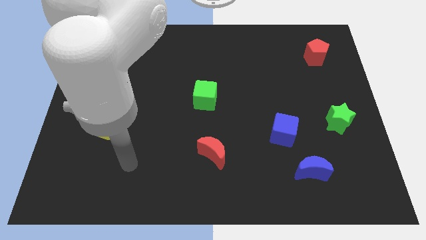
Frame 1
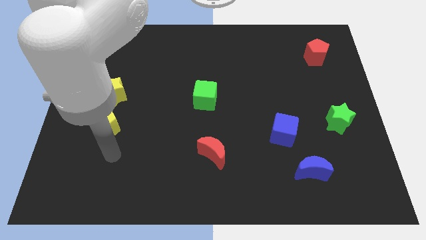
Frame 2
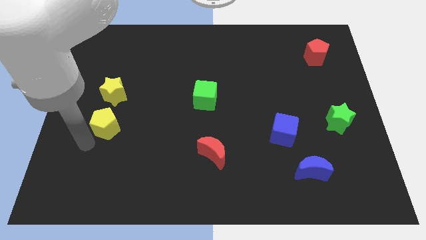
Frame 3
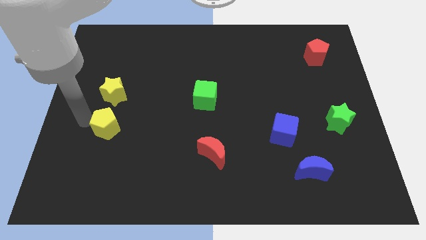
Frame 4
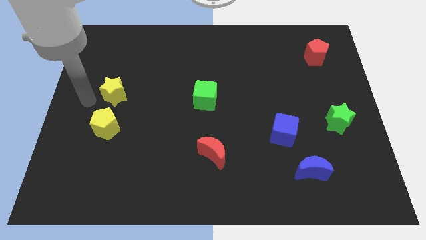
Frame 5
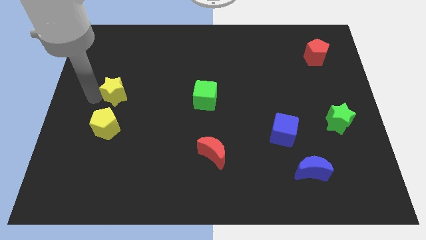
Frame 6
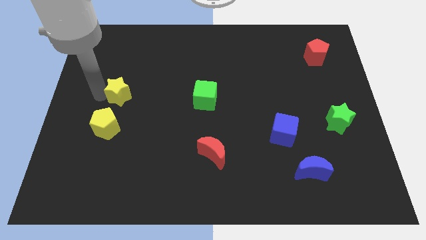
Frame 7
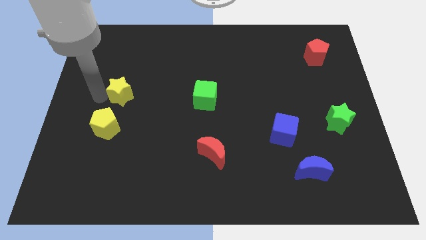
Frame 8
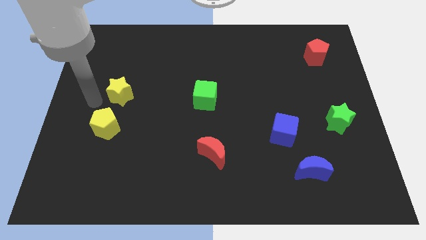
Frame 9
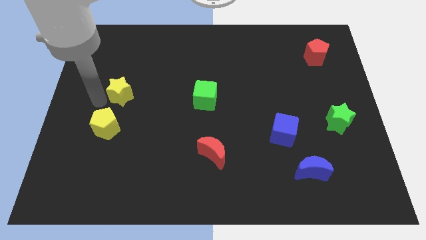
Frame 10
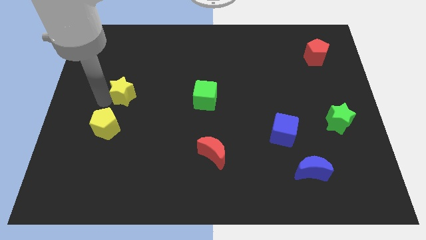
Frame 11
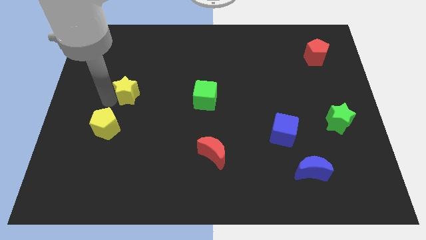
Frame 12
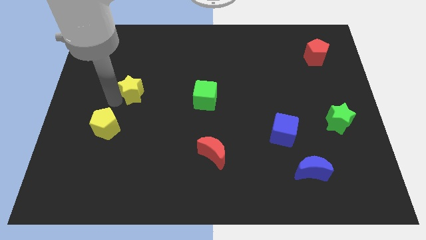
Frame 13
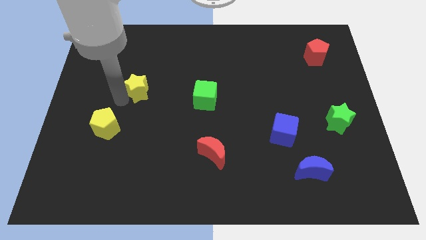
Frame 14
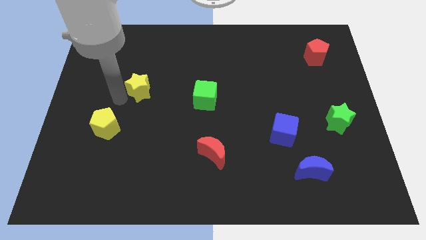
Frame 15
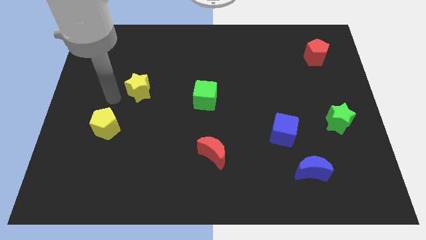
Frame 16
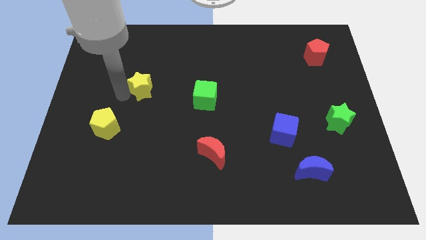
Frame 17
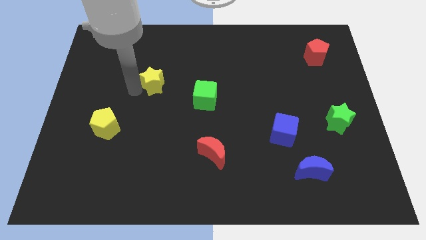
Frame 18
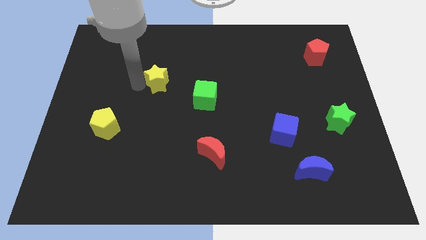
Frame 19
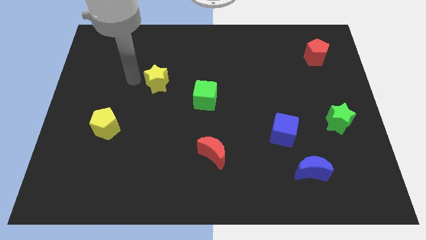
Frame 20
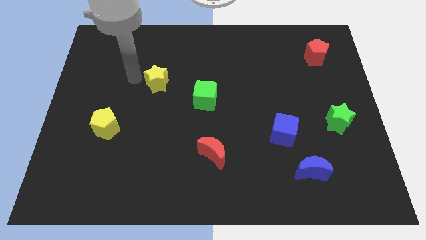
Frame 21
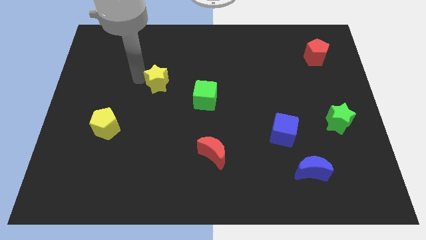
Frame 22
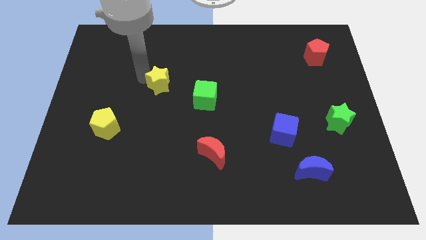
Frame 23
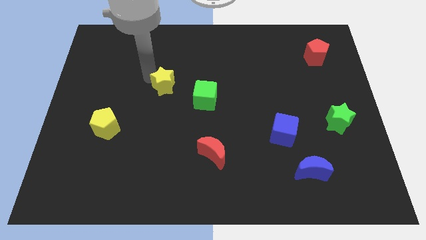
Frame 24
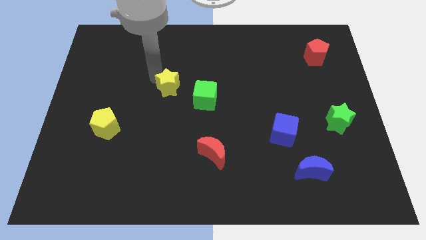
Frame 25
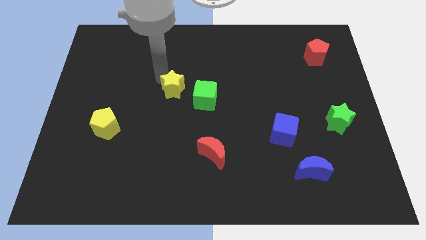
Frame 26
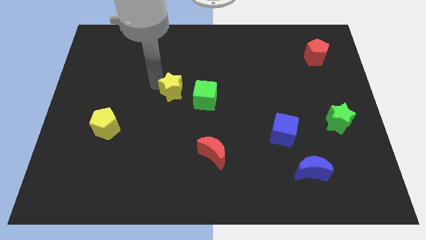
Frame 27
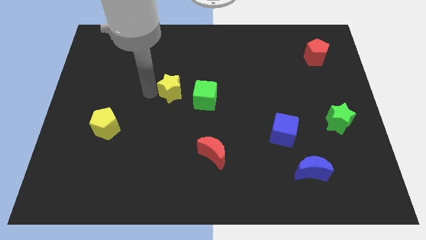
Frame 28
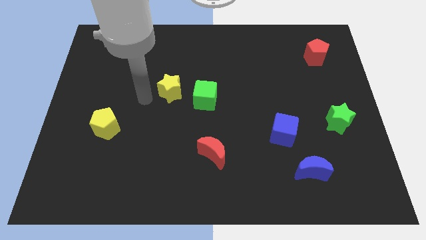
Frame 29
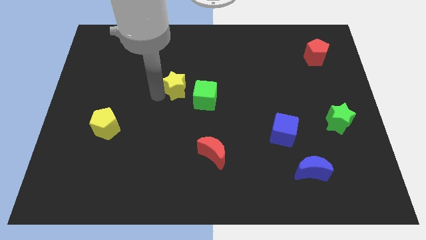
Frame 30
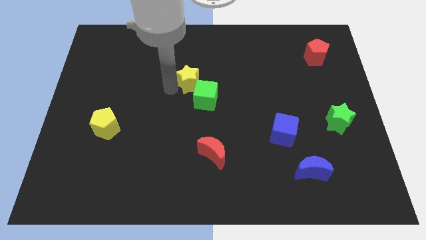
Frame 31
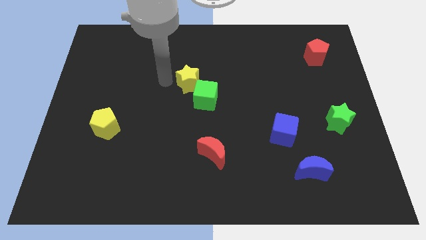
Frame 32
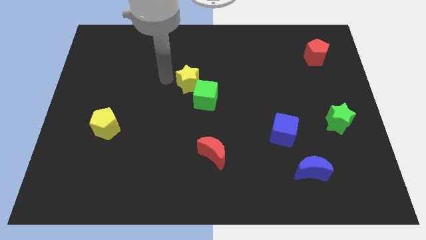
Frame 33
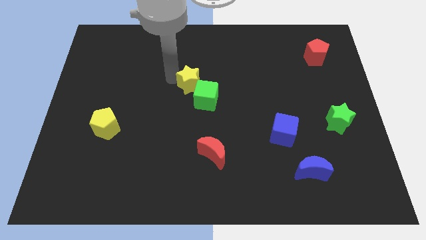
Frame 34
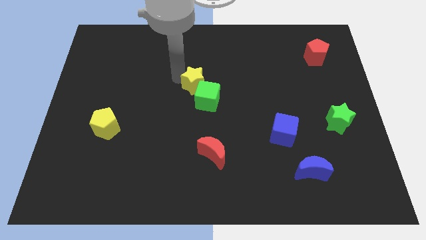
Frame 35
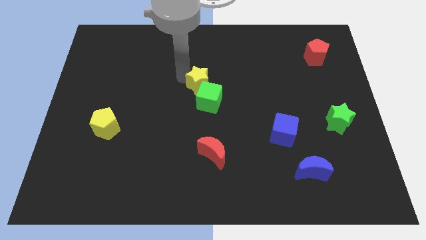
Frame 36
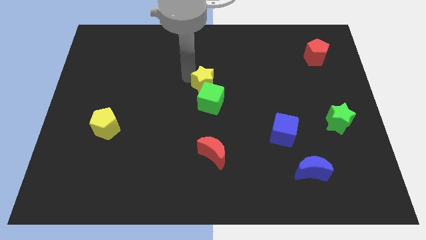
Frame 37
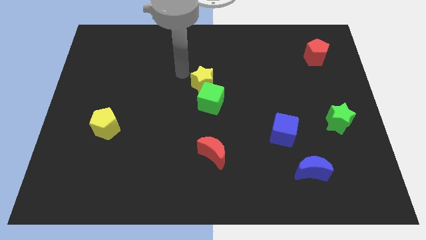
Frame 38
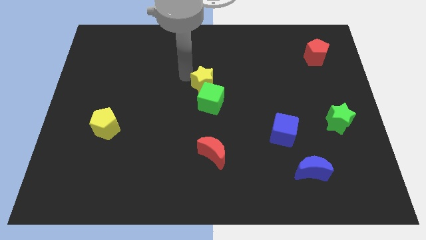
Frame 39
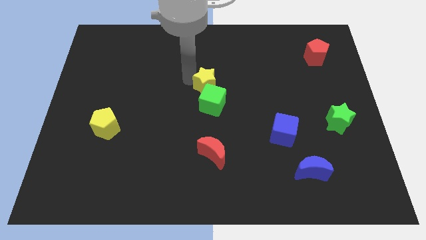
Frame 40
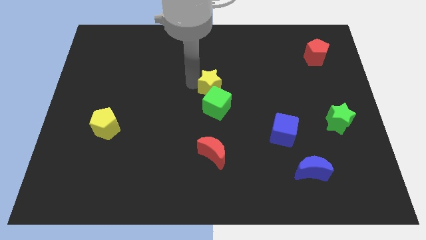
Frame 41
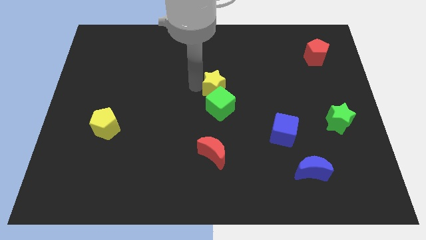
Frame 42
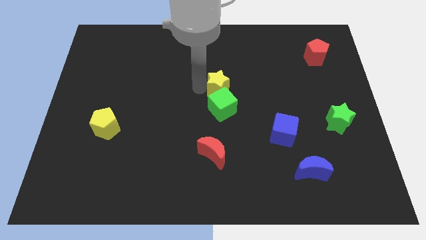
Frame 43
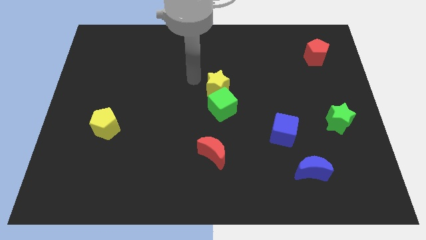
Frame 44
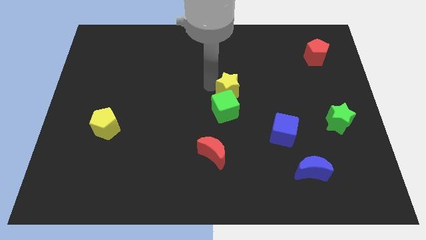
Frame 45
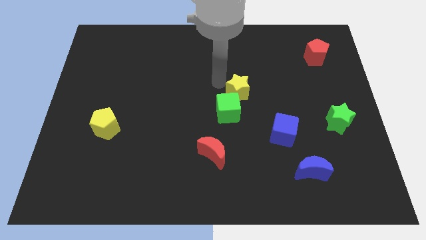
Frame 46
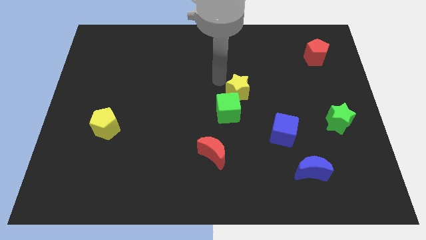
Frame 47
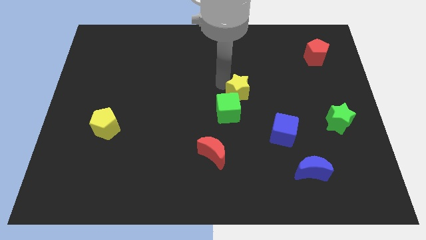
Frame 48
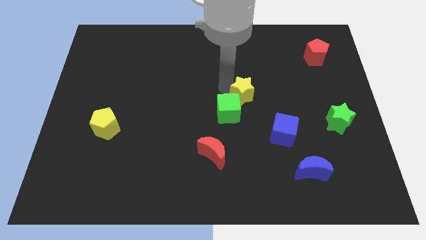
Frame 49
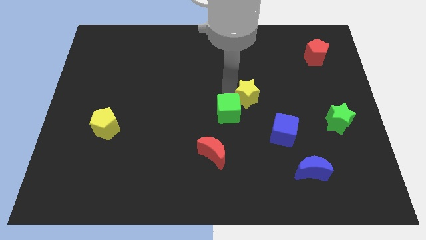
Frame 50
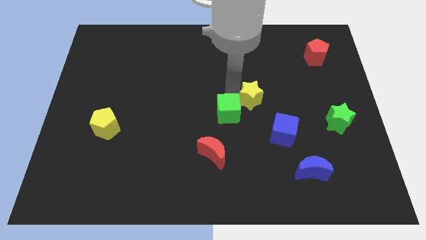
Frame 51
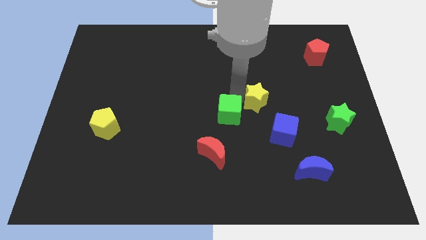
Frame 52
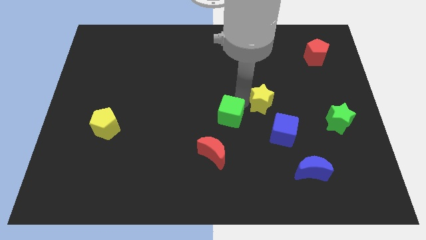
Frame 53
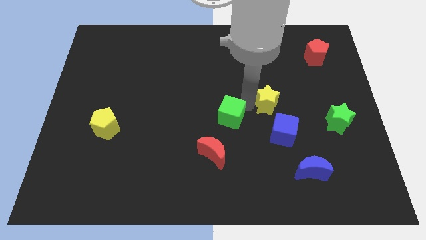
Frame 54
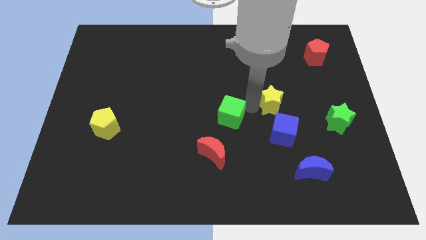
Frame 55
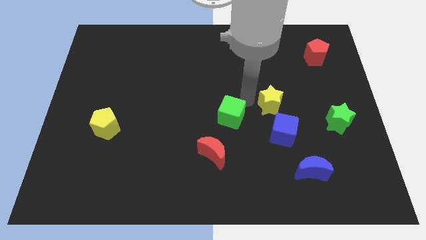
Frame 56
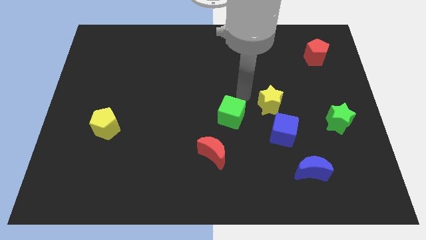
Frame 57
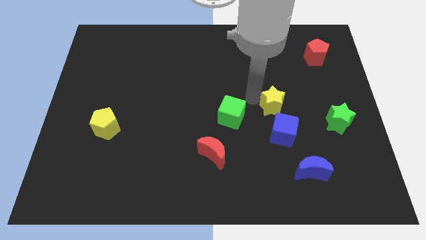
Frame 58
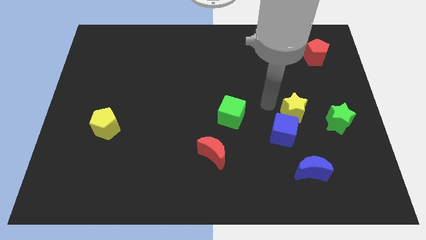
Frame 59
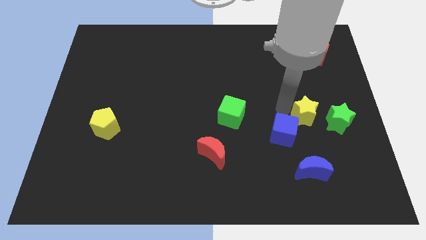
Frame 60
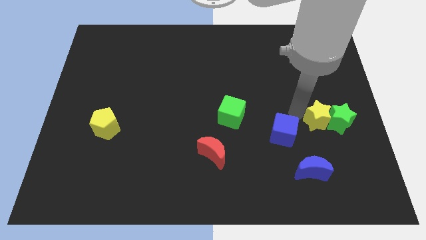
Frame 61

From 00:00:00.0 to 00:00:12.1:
move the yellow star towards the green star

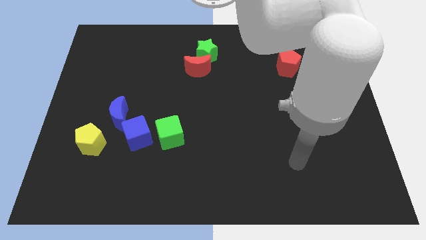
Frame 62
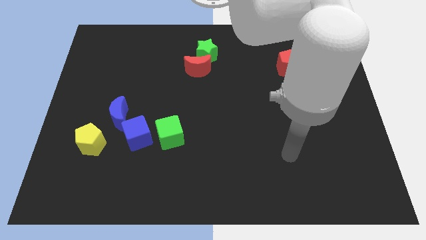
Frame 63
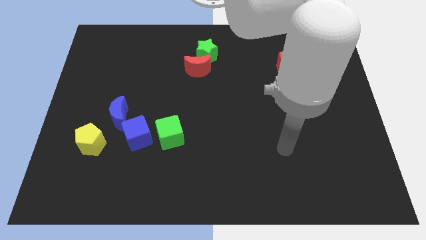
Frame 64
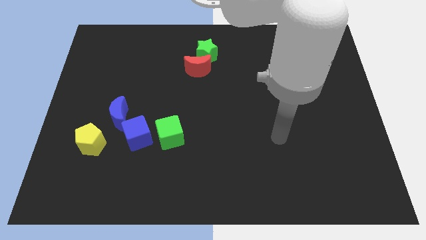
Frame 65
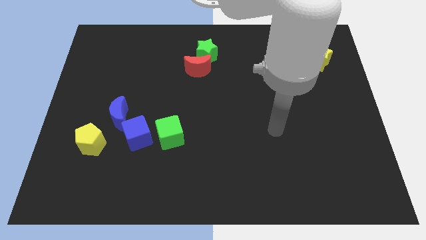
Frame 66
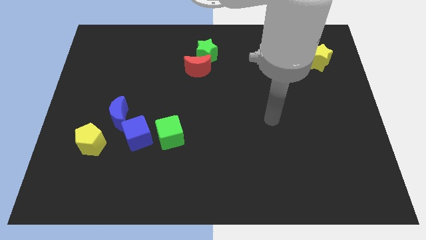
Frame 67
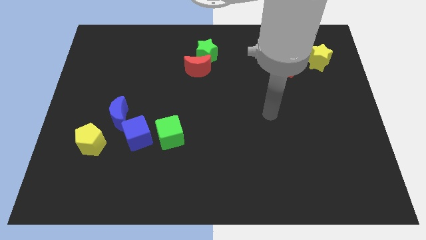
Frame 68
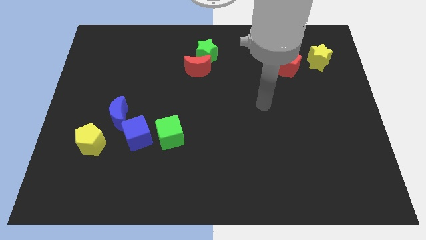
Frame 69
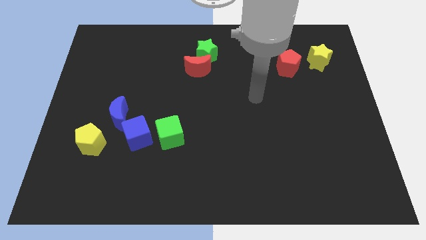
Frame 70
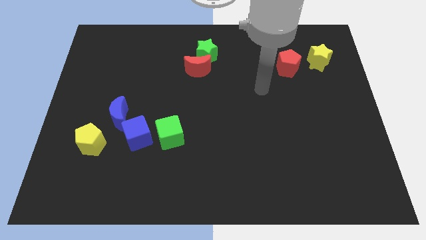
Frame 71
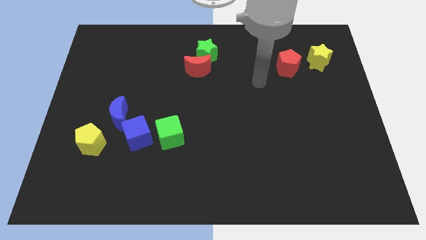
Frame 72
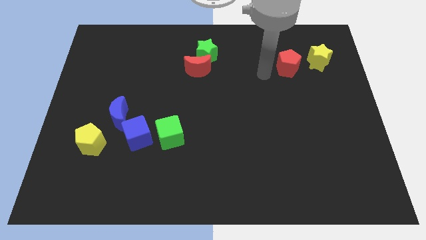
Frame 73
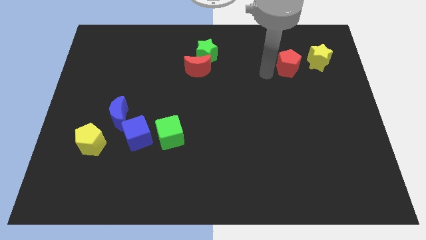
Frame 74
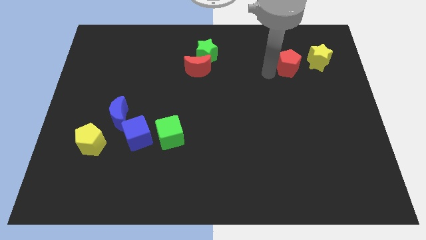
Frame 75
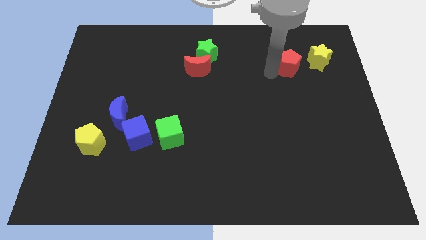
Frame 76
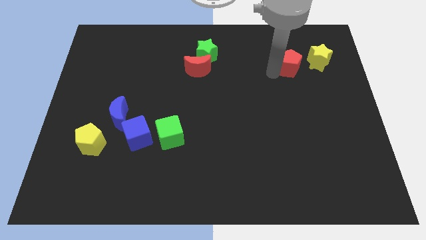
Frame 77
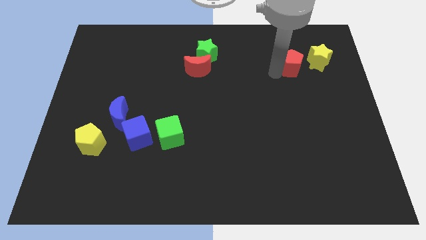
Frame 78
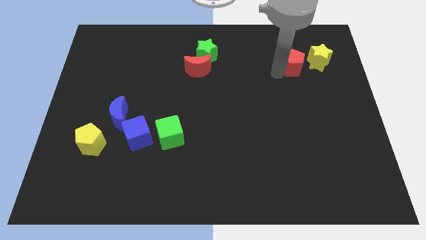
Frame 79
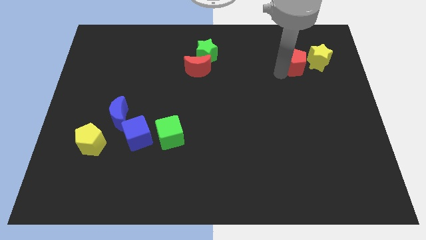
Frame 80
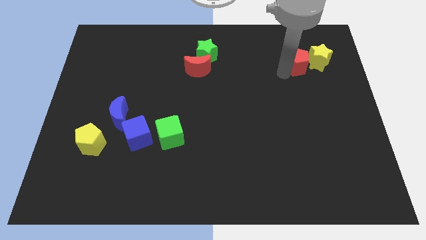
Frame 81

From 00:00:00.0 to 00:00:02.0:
put the red pentagon towards the yellow star
